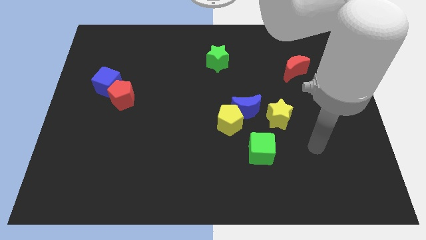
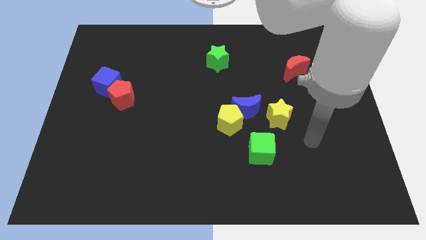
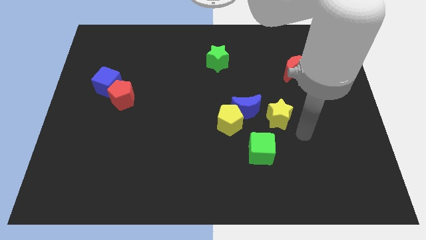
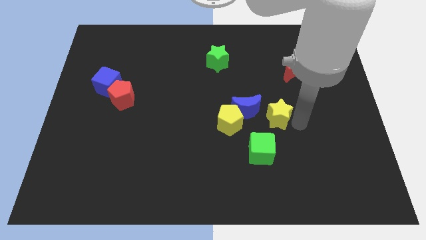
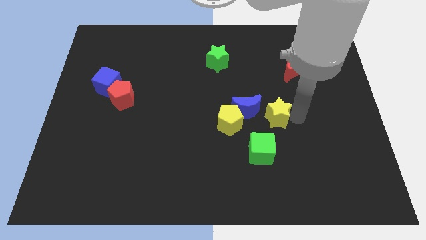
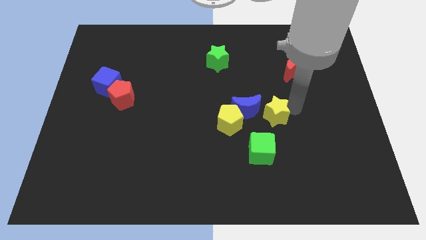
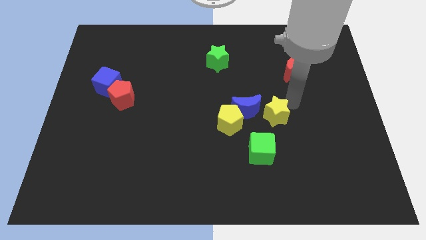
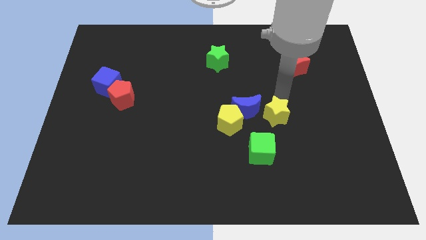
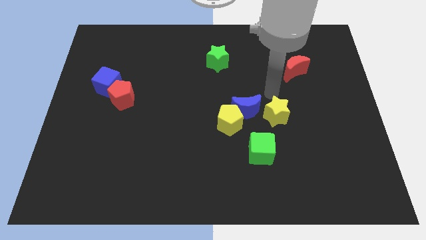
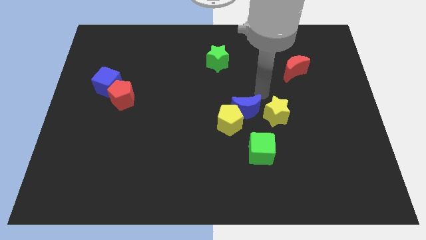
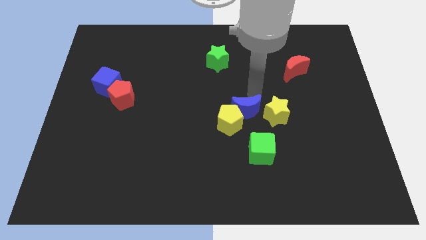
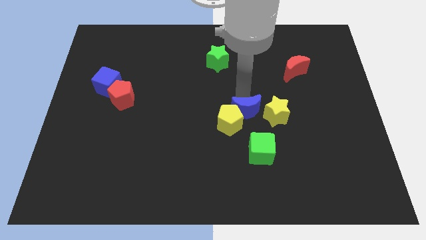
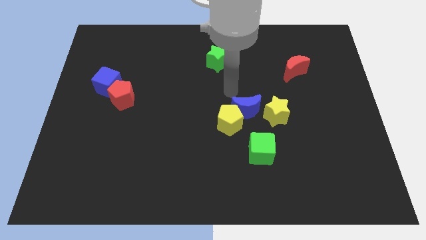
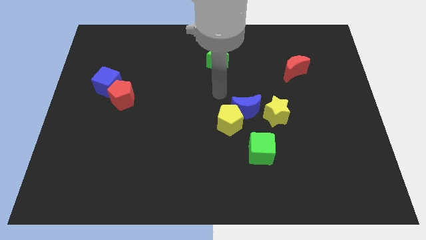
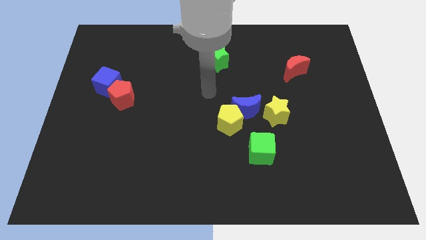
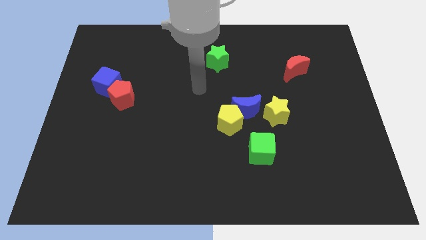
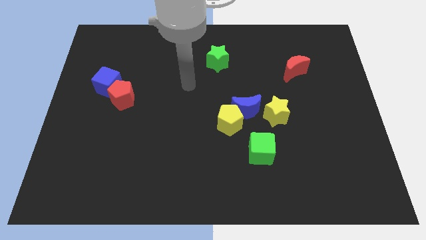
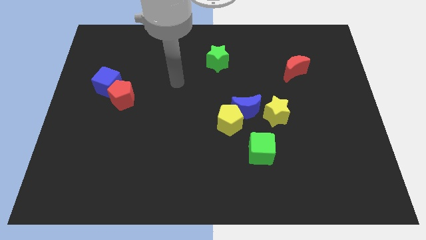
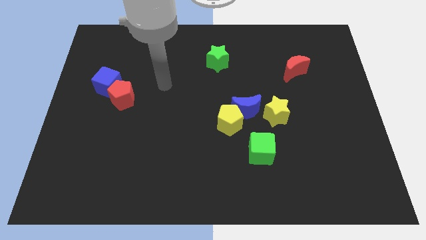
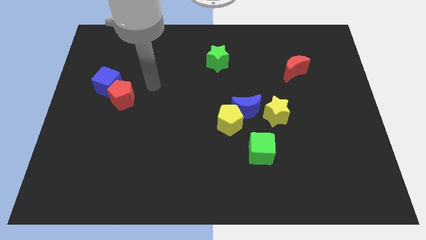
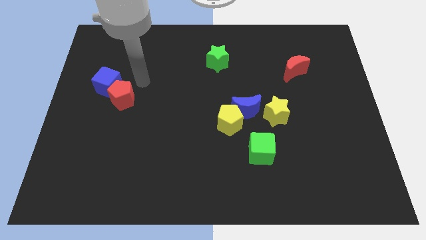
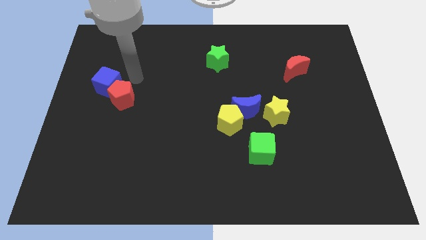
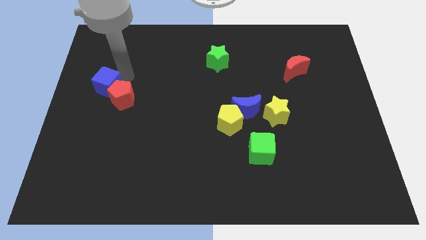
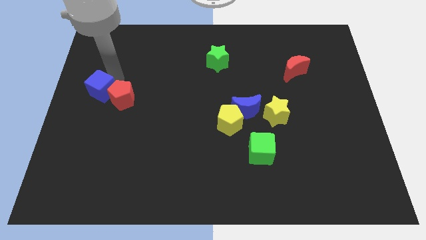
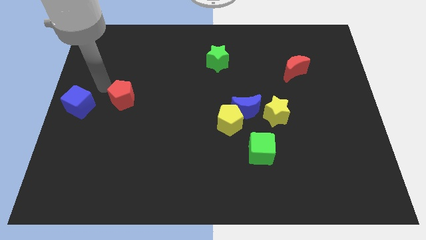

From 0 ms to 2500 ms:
move the red pentagon away from the blue cube

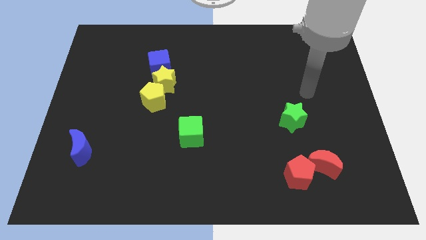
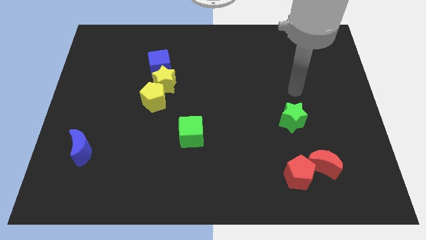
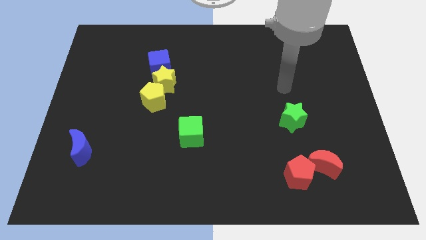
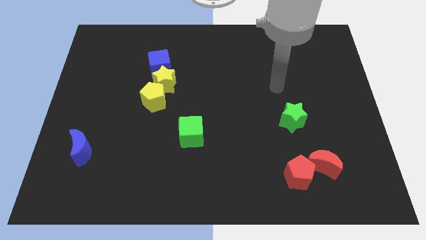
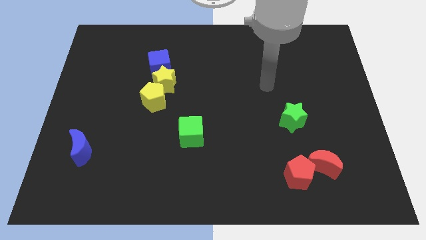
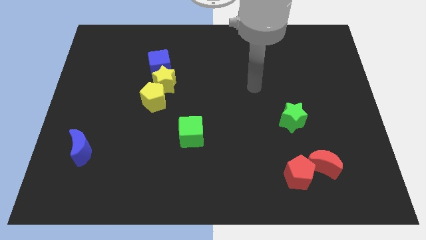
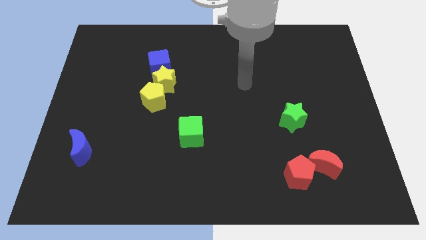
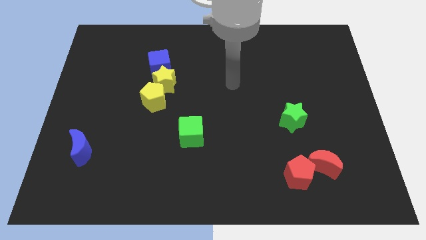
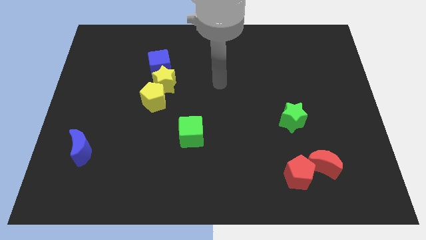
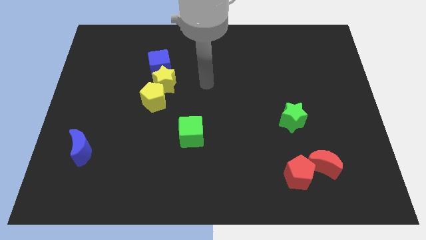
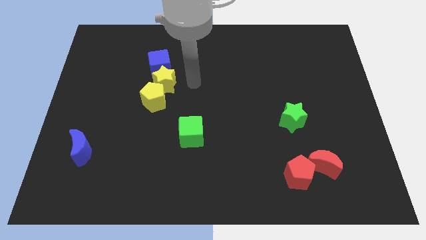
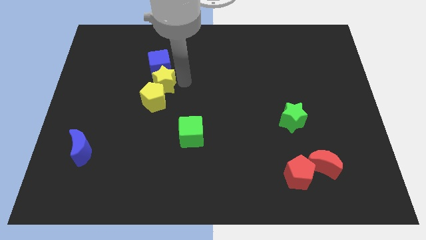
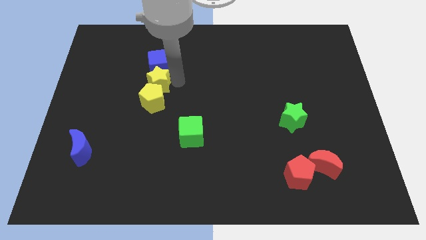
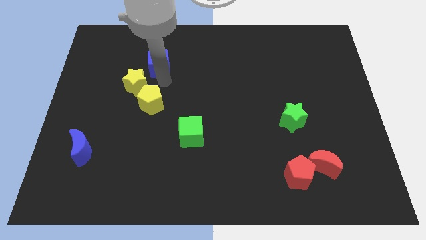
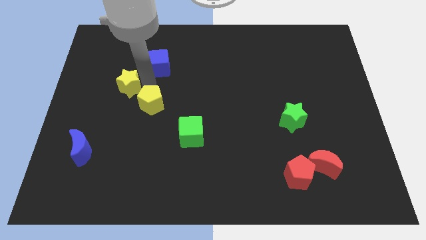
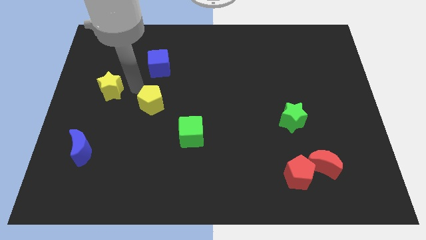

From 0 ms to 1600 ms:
move the yellow pentagon away from the yellow star

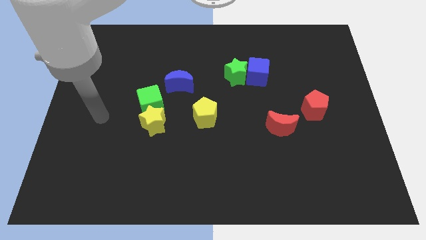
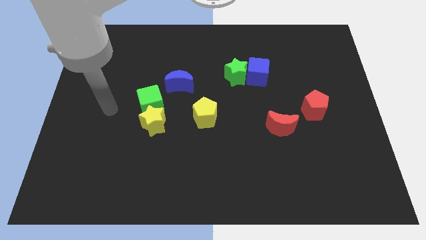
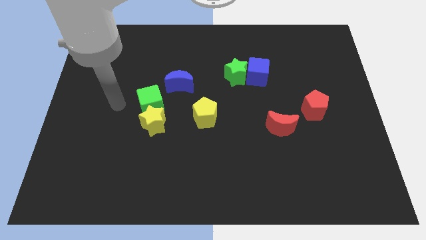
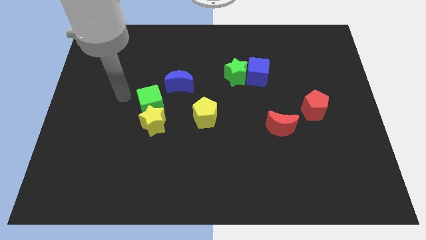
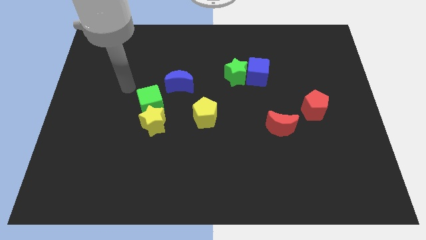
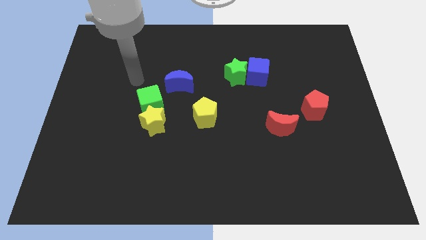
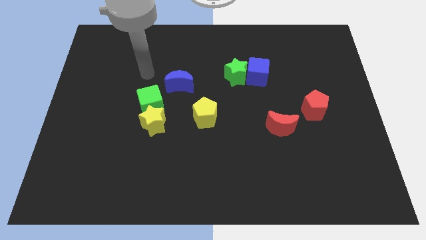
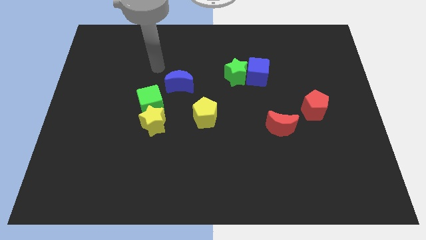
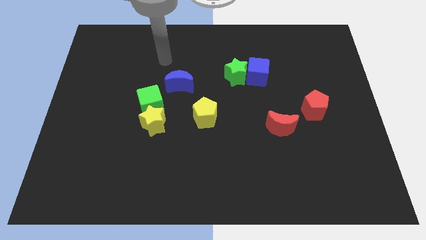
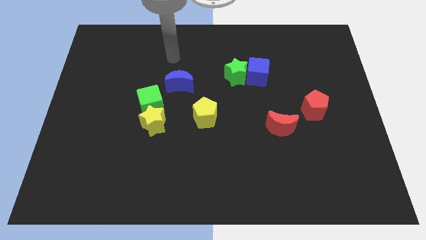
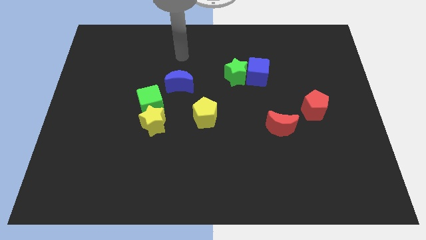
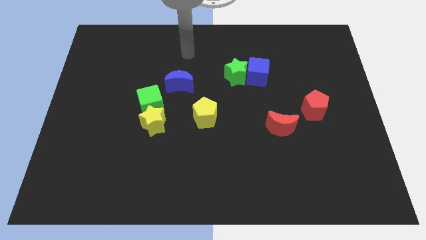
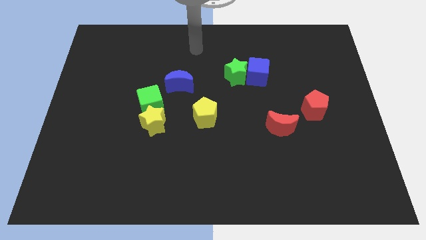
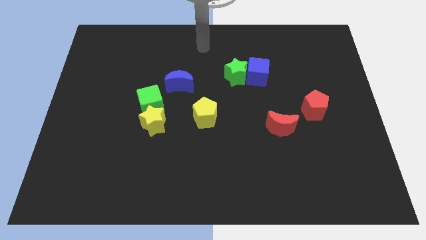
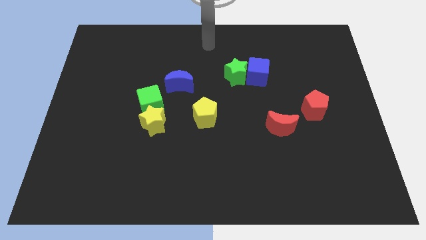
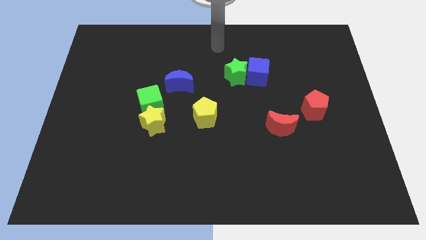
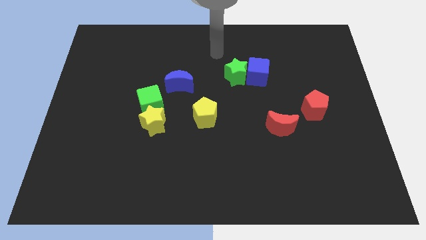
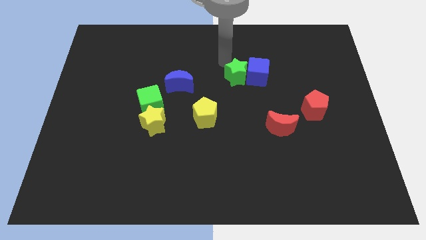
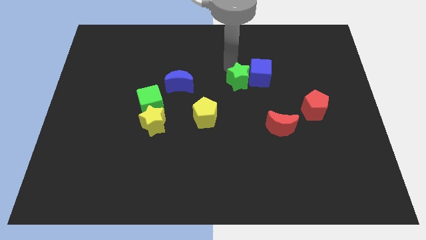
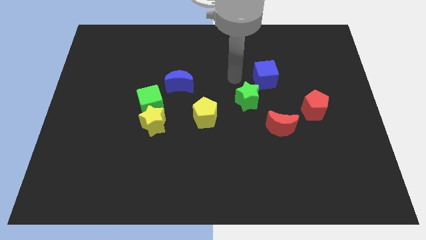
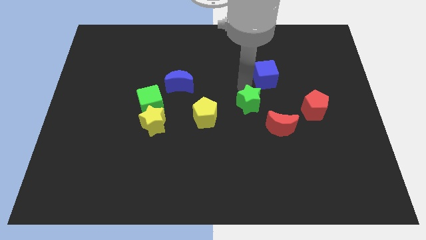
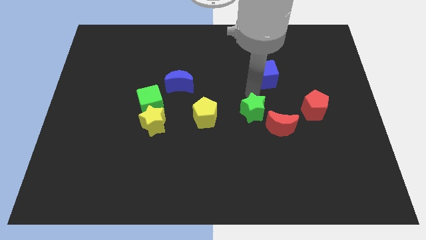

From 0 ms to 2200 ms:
pull the blue cube apart from the green star

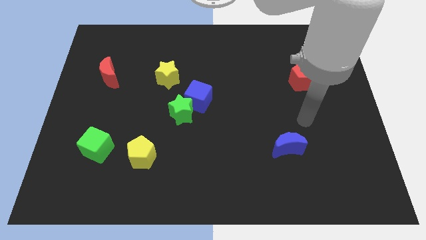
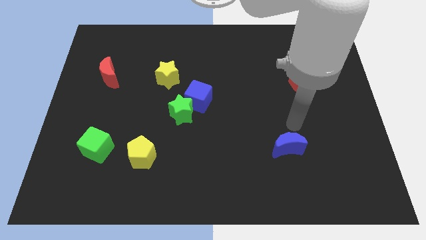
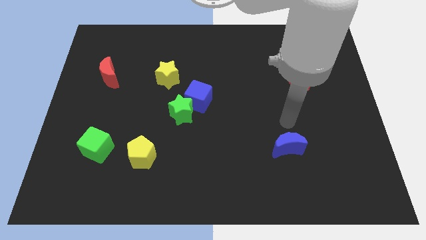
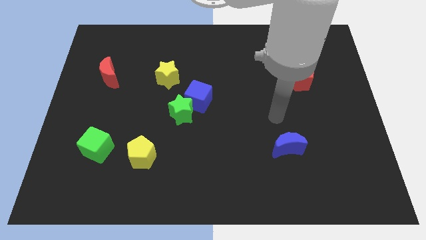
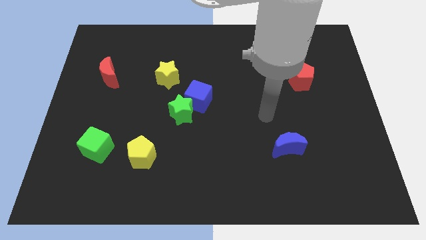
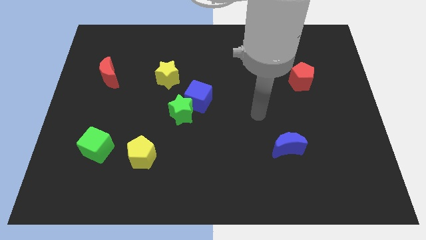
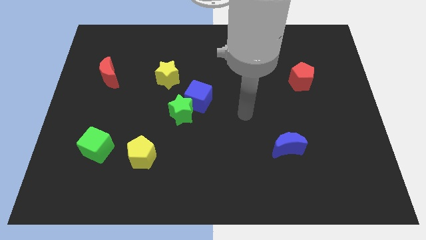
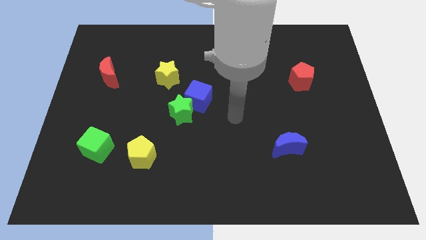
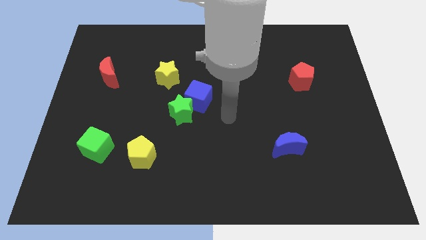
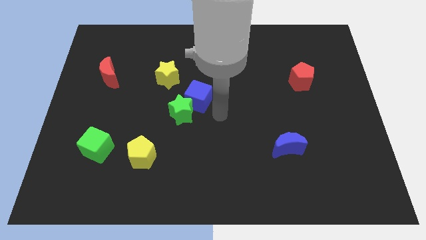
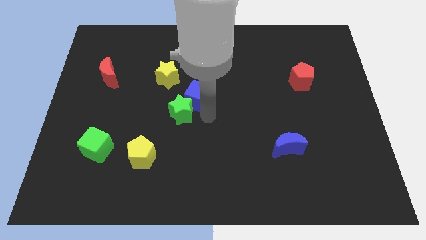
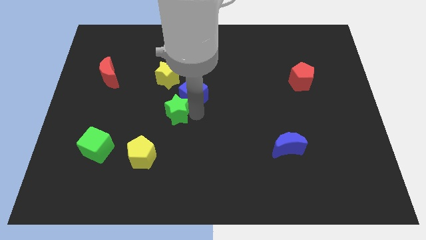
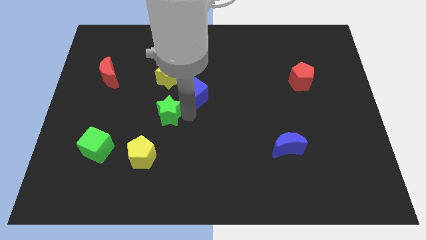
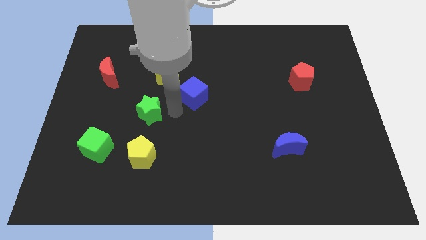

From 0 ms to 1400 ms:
separate the blue cube from the green star

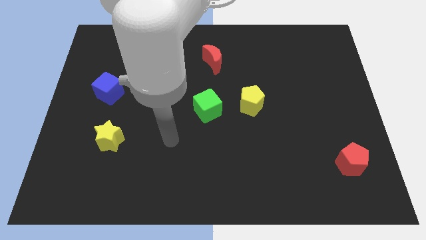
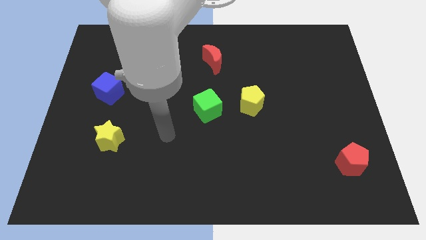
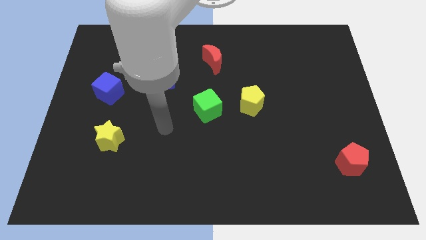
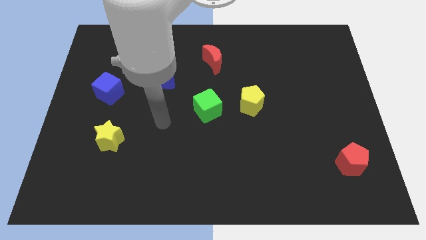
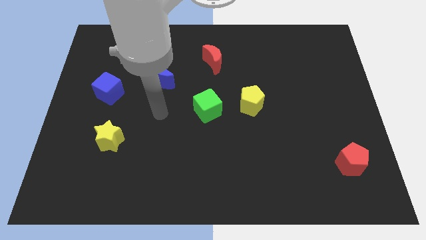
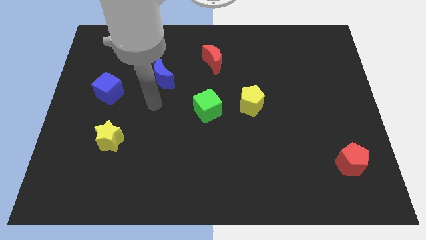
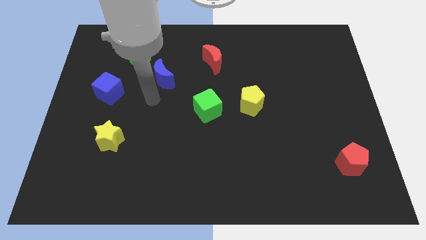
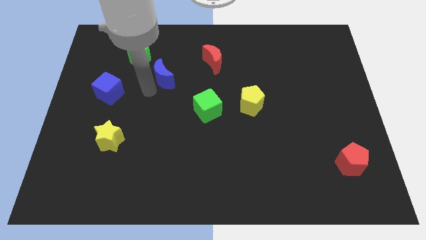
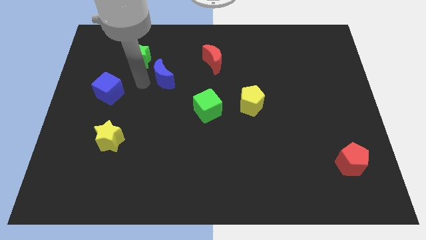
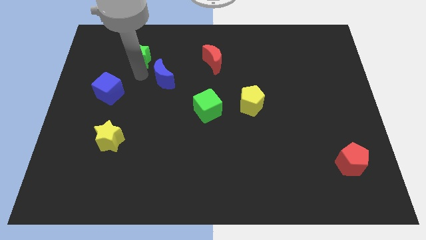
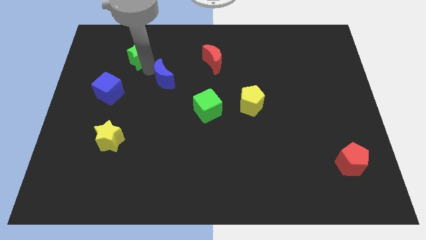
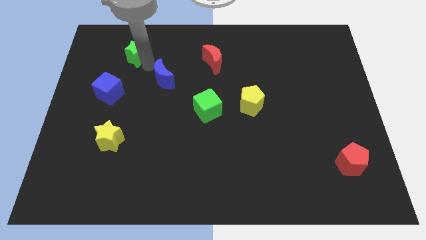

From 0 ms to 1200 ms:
separate the blue moon from the green star

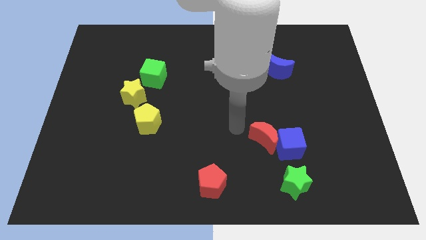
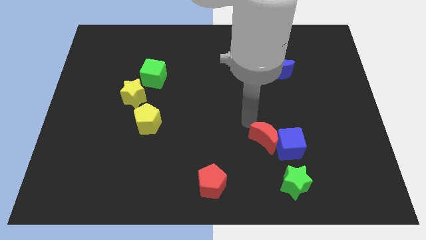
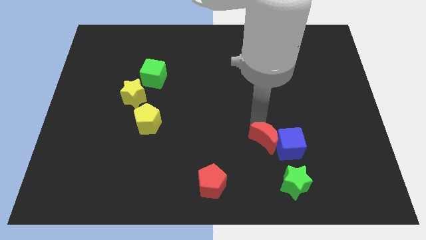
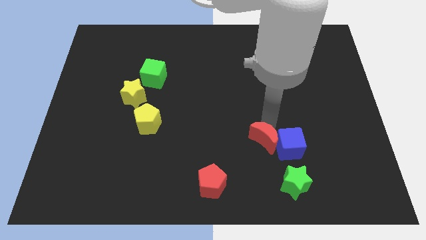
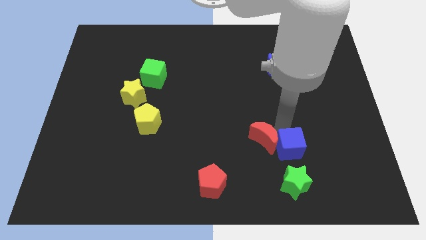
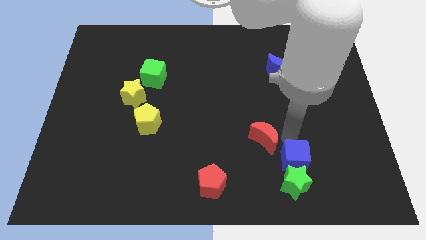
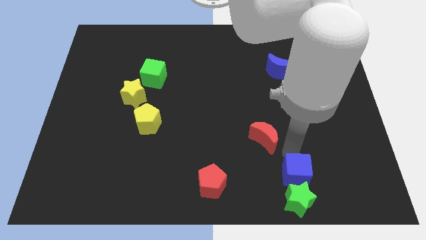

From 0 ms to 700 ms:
move the red moon away from the blue cube
